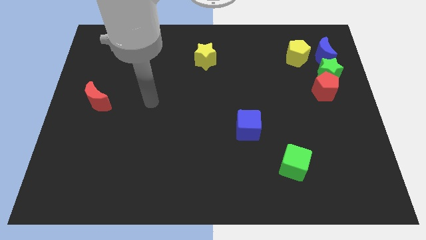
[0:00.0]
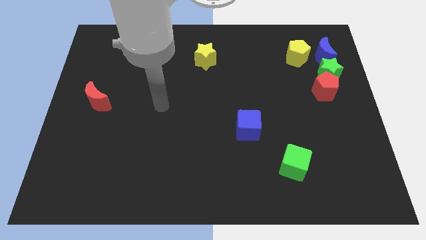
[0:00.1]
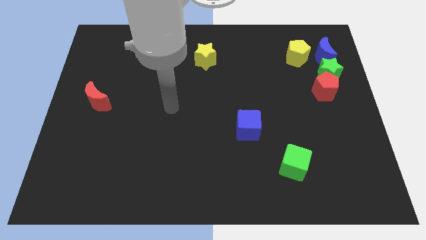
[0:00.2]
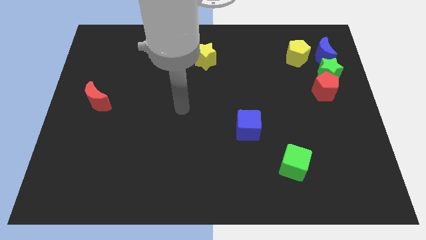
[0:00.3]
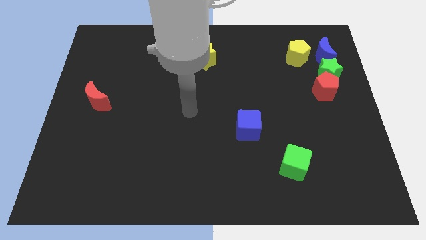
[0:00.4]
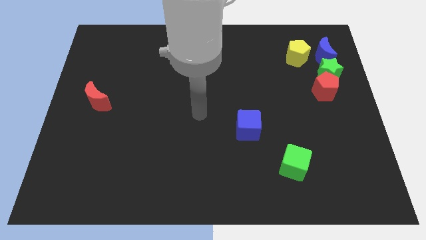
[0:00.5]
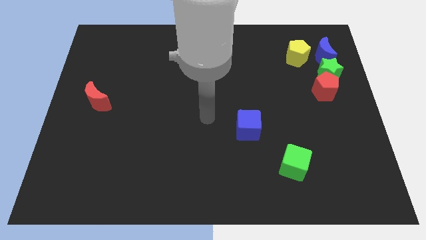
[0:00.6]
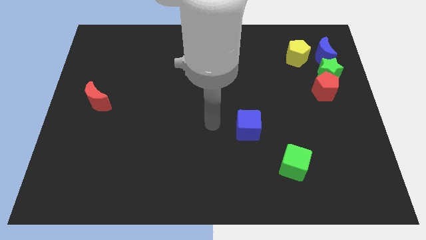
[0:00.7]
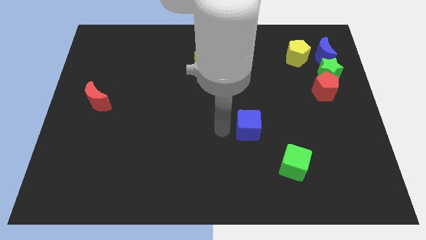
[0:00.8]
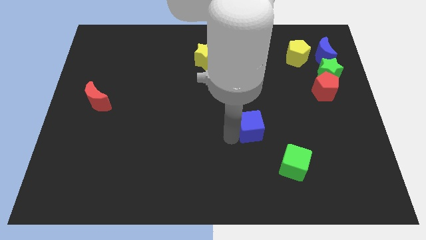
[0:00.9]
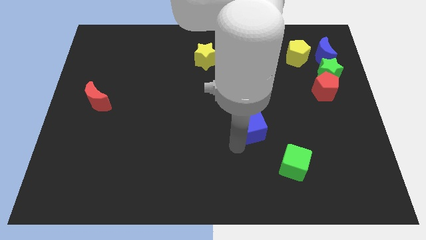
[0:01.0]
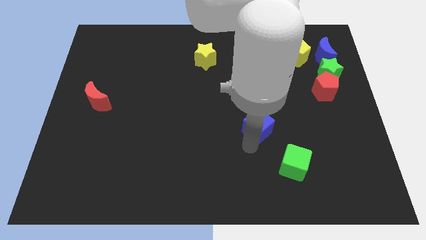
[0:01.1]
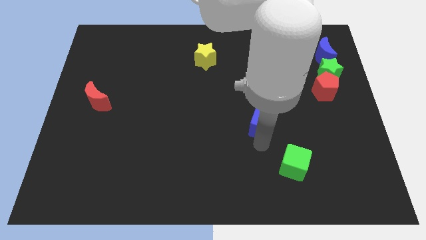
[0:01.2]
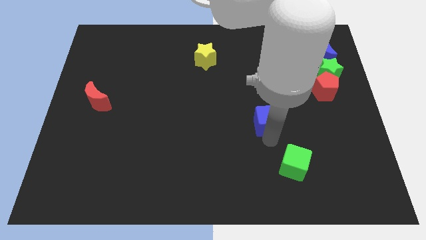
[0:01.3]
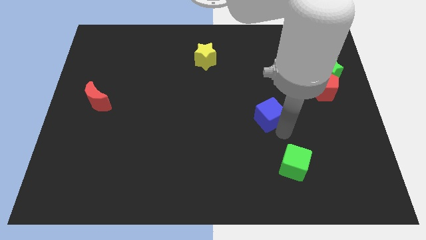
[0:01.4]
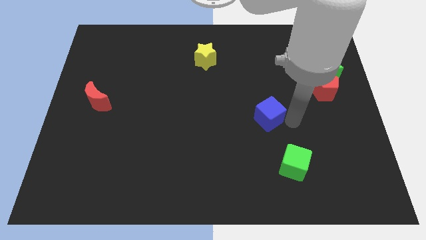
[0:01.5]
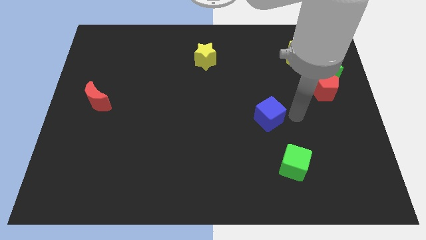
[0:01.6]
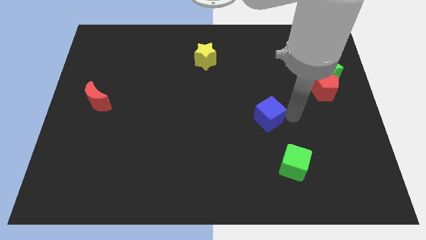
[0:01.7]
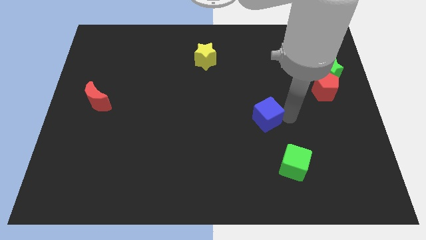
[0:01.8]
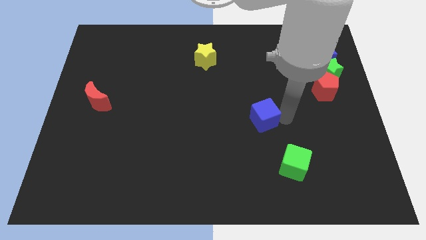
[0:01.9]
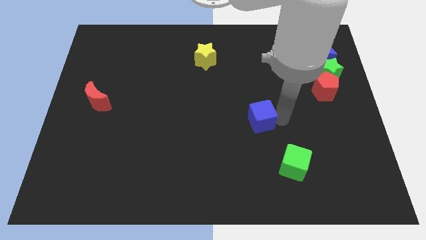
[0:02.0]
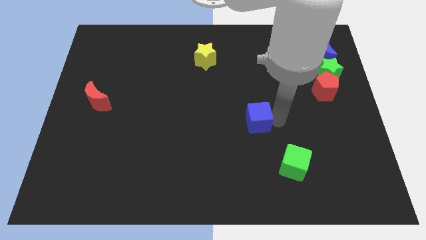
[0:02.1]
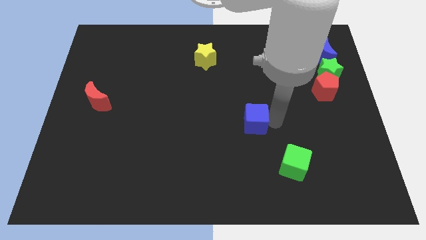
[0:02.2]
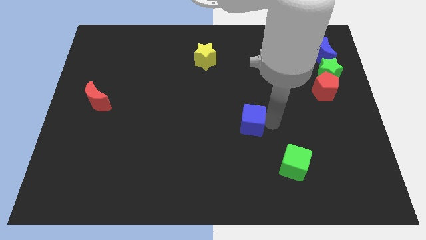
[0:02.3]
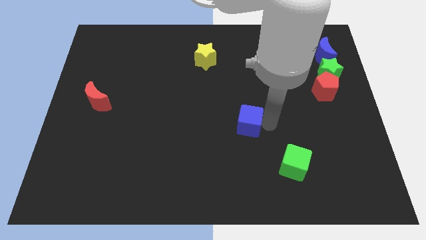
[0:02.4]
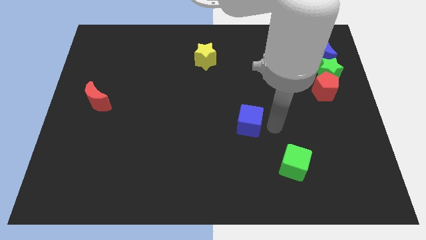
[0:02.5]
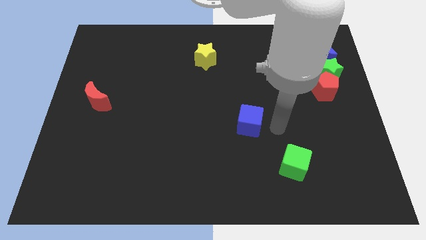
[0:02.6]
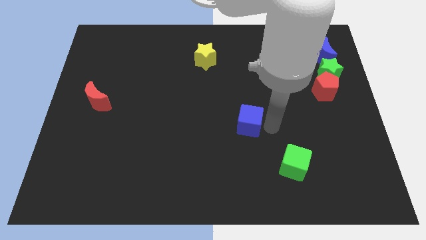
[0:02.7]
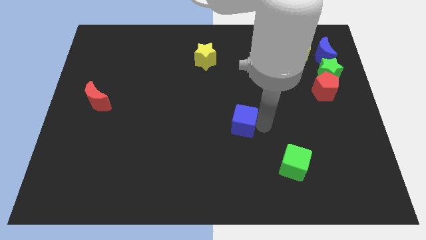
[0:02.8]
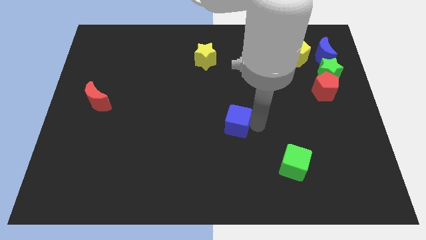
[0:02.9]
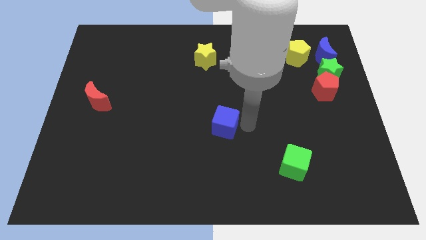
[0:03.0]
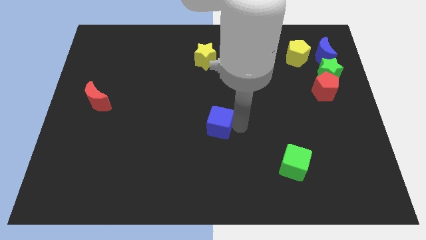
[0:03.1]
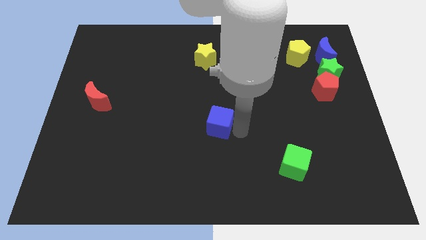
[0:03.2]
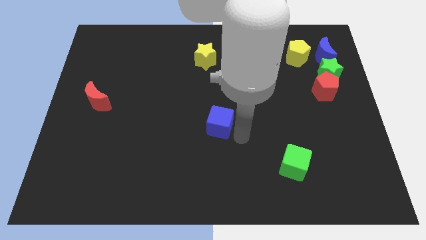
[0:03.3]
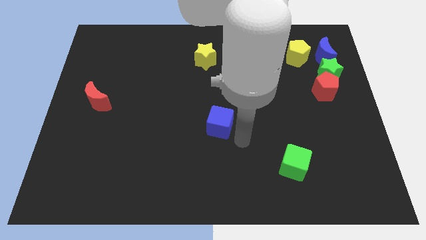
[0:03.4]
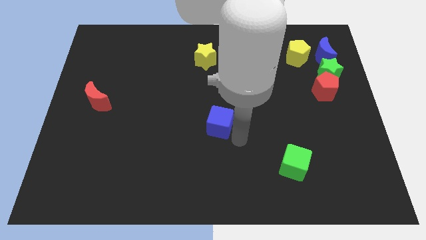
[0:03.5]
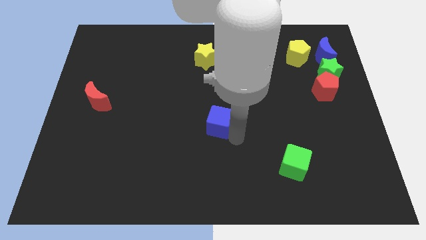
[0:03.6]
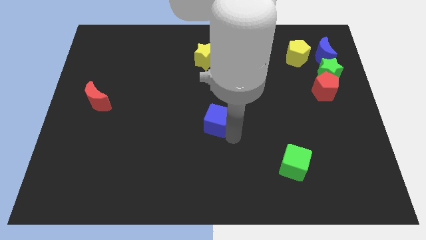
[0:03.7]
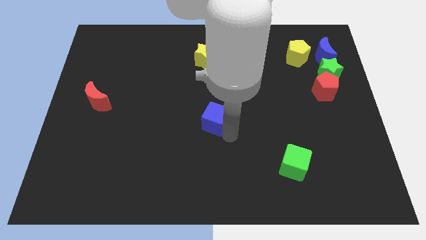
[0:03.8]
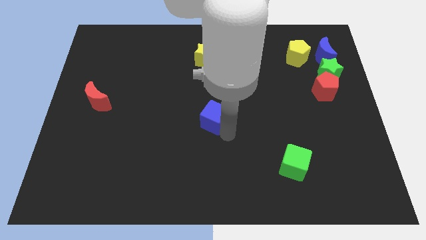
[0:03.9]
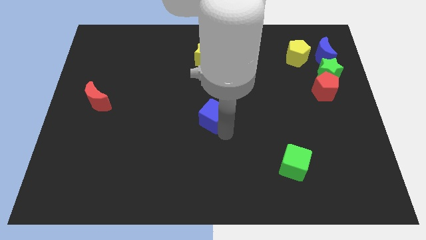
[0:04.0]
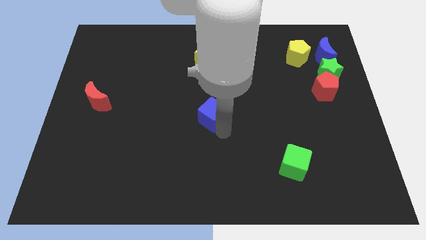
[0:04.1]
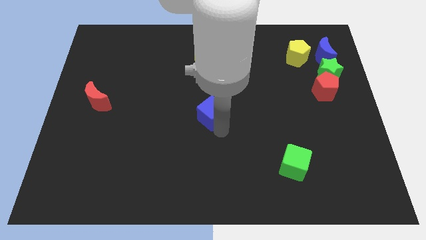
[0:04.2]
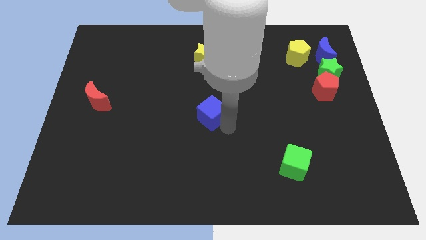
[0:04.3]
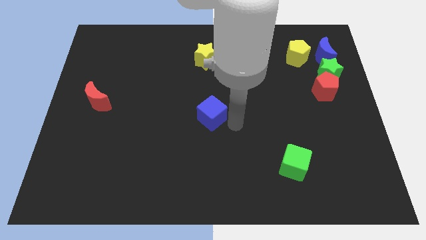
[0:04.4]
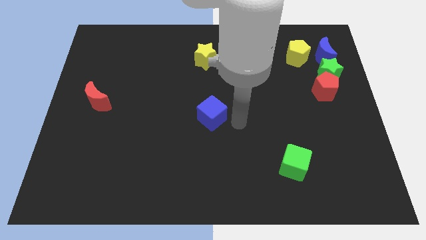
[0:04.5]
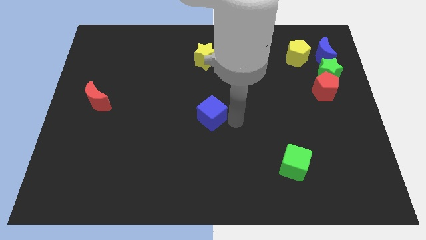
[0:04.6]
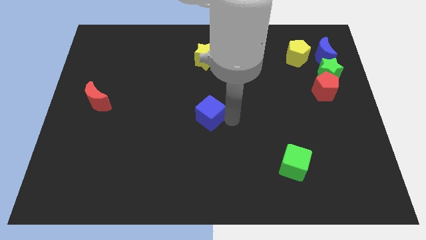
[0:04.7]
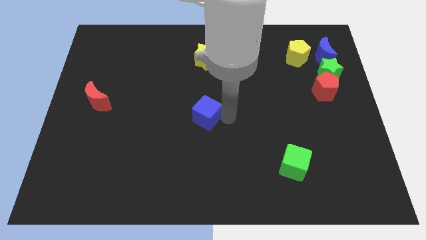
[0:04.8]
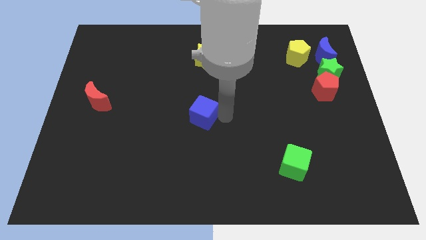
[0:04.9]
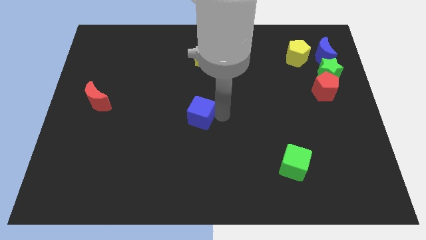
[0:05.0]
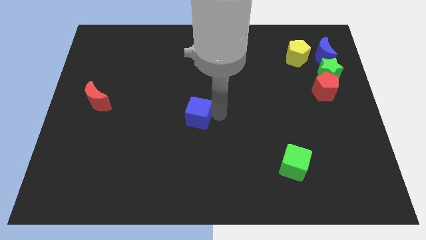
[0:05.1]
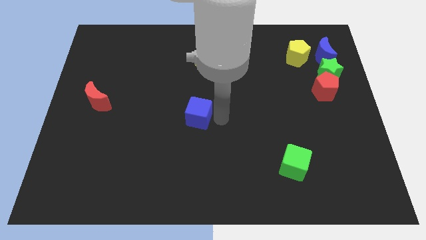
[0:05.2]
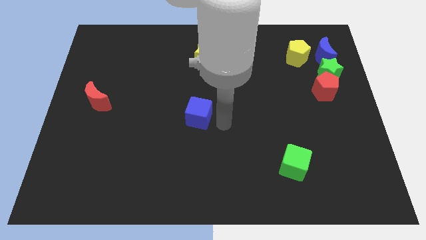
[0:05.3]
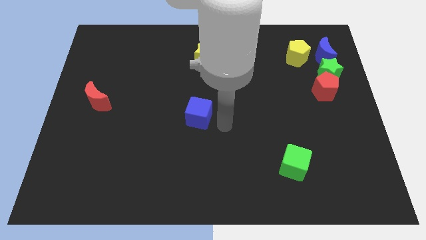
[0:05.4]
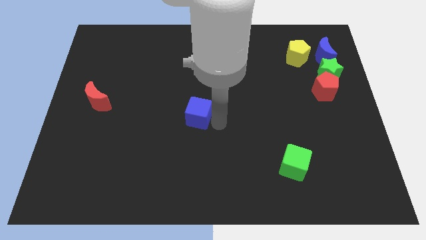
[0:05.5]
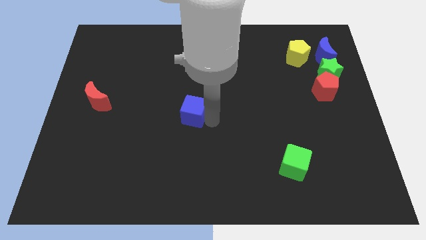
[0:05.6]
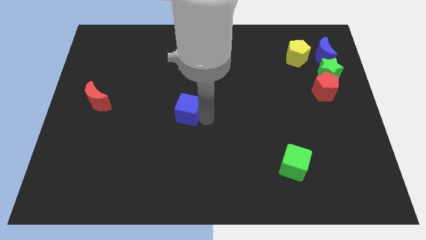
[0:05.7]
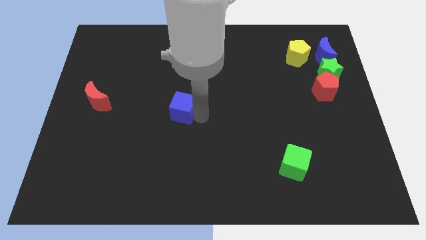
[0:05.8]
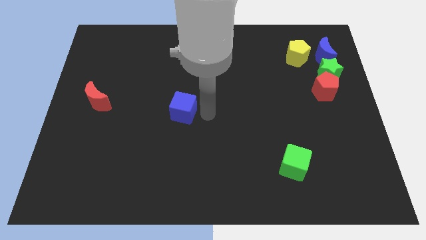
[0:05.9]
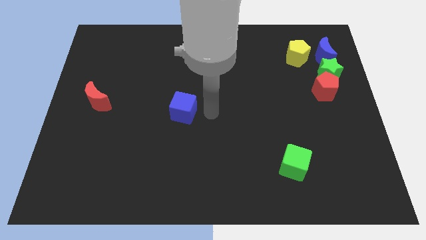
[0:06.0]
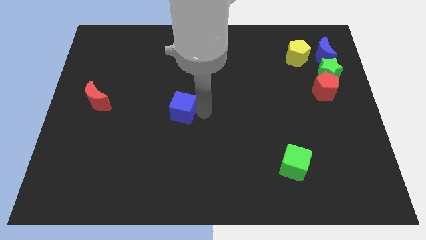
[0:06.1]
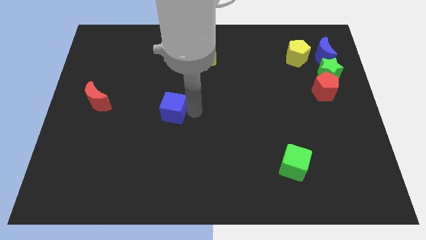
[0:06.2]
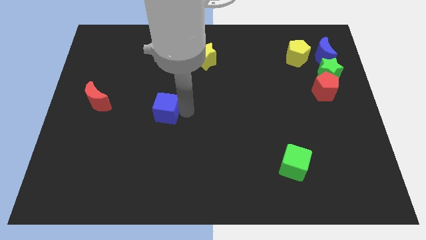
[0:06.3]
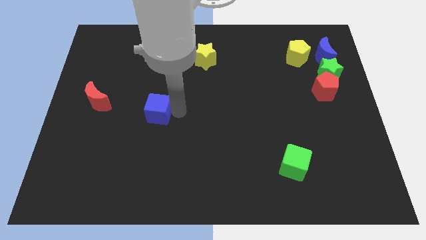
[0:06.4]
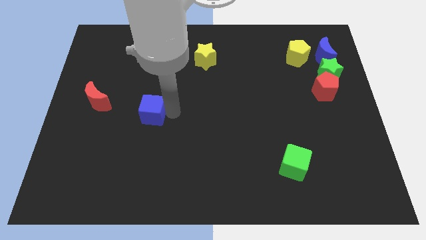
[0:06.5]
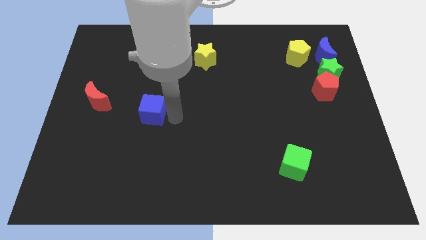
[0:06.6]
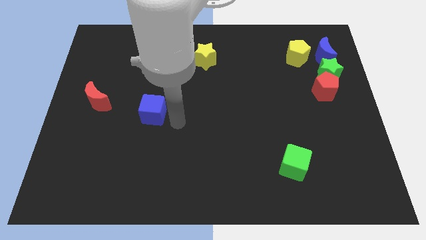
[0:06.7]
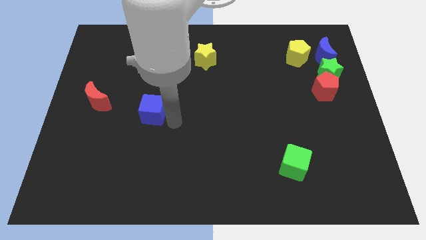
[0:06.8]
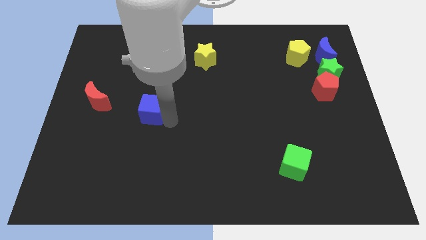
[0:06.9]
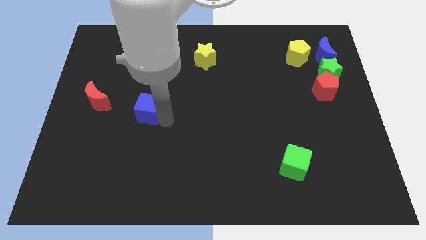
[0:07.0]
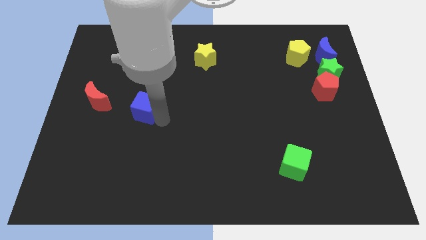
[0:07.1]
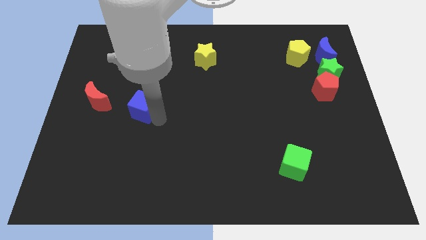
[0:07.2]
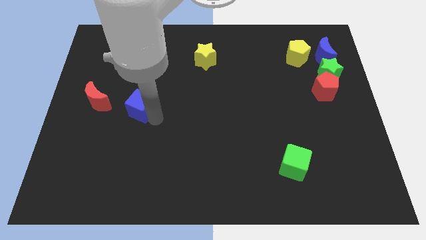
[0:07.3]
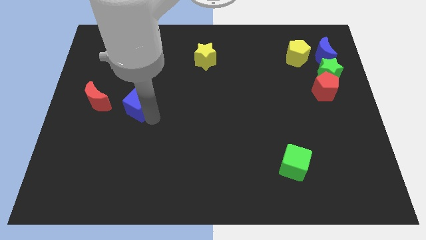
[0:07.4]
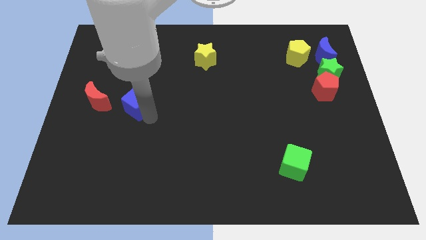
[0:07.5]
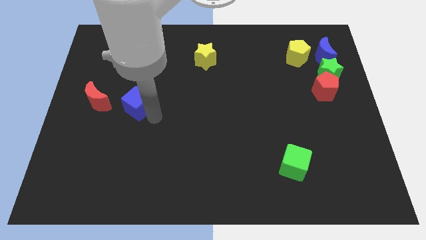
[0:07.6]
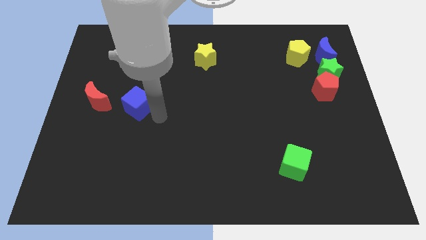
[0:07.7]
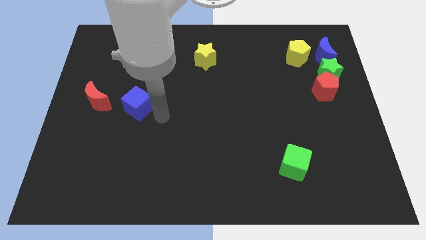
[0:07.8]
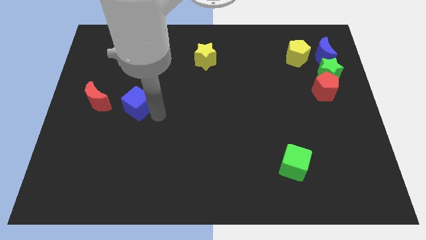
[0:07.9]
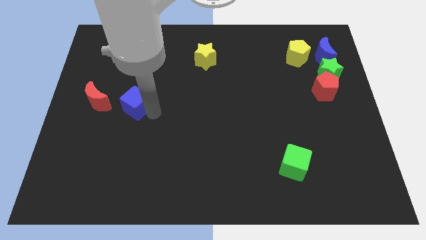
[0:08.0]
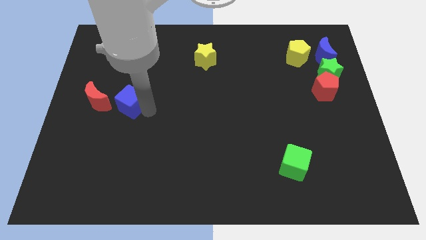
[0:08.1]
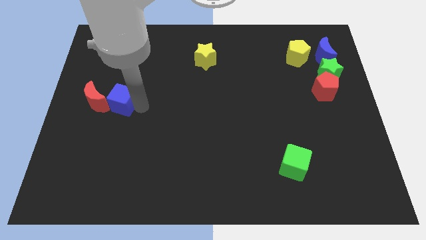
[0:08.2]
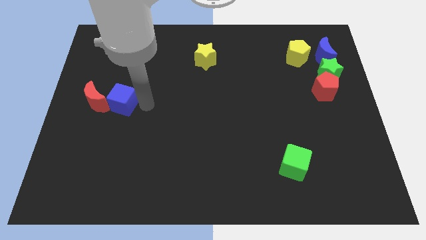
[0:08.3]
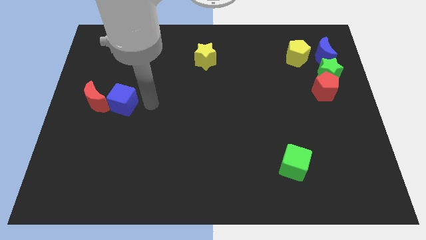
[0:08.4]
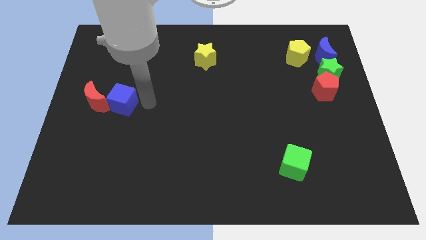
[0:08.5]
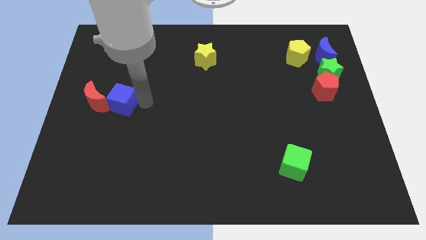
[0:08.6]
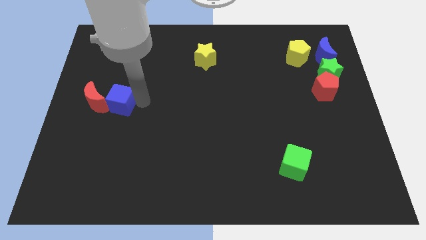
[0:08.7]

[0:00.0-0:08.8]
move the blue cube close to the red moon
